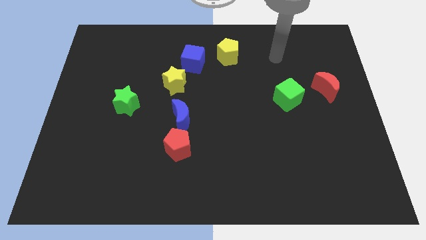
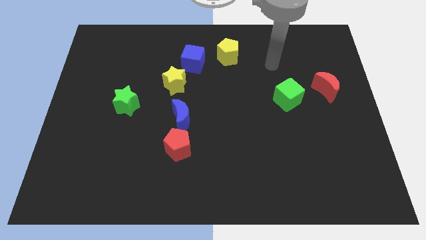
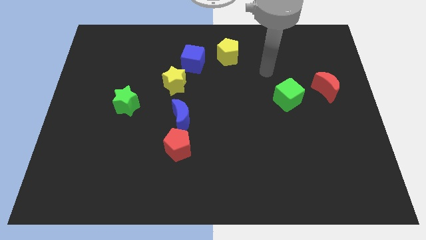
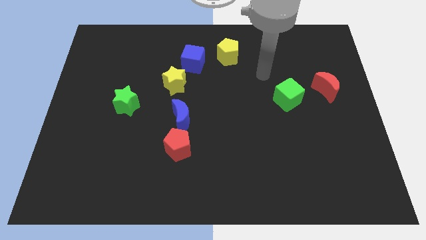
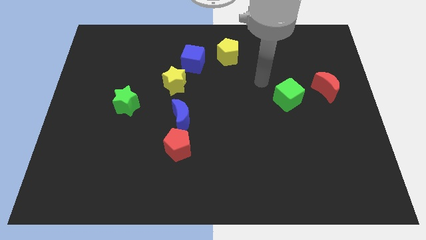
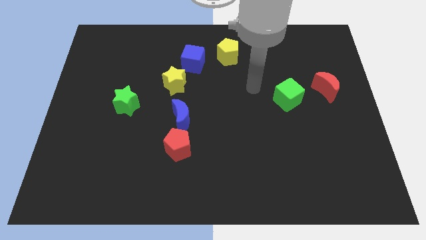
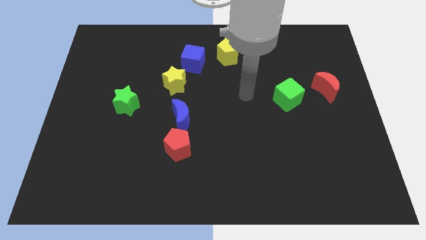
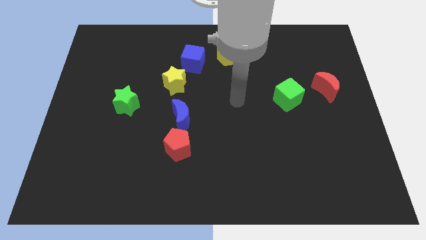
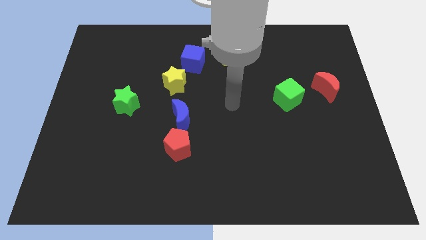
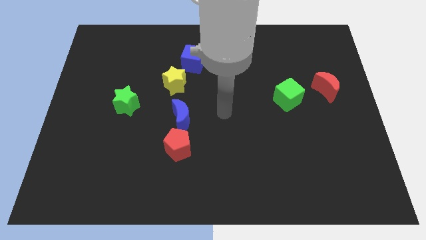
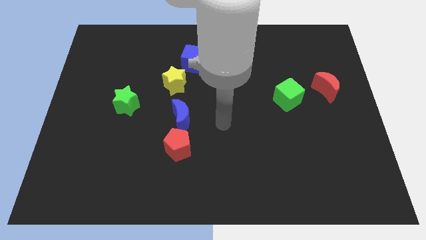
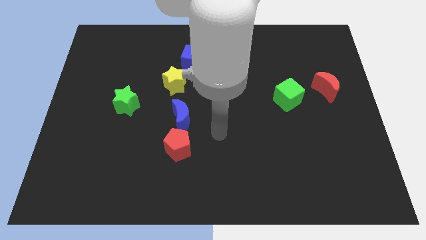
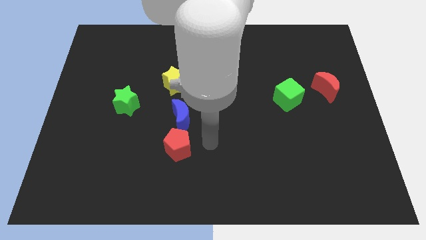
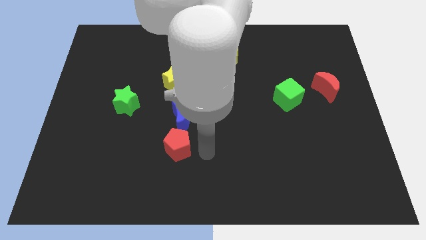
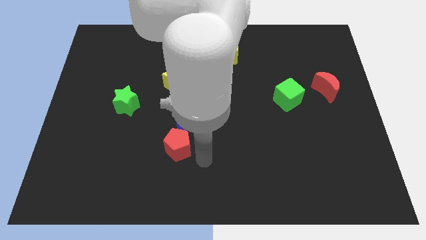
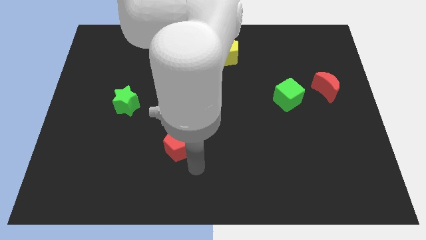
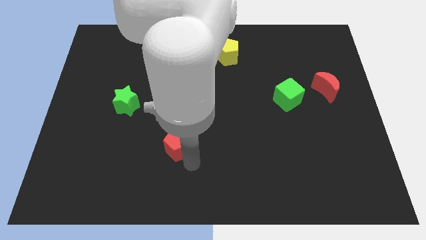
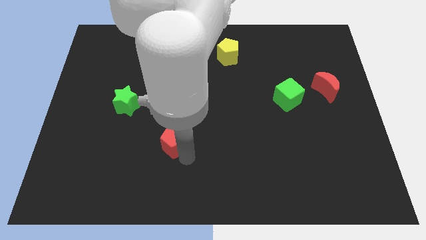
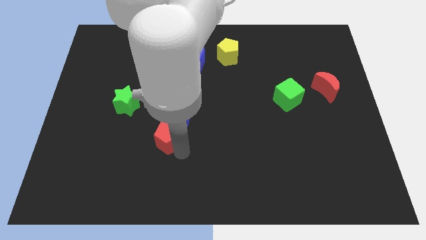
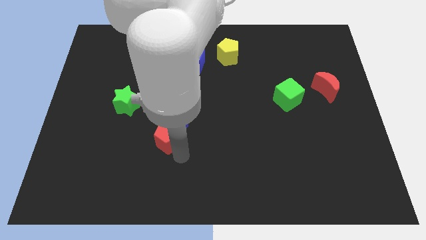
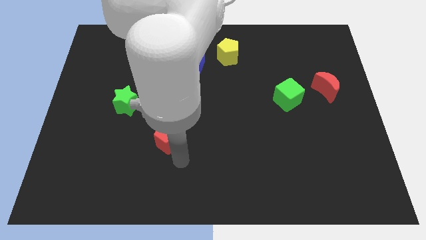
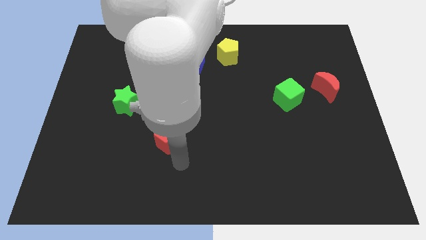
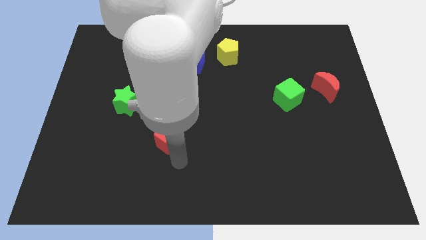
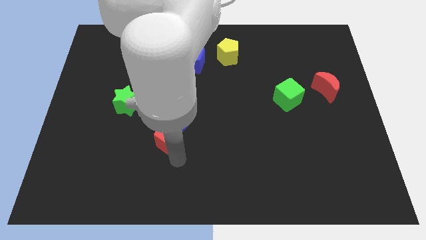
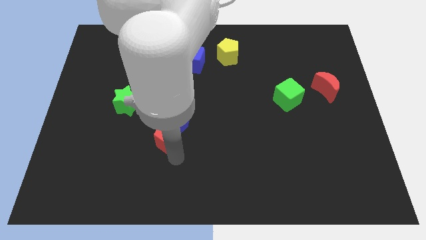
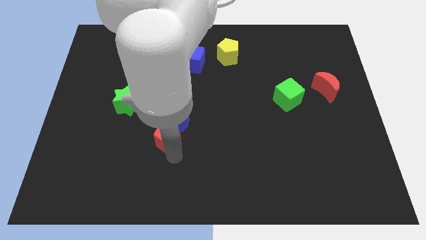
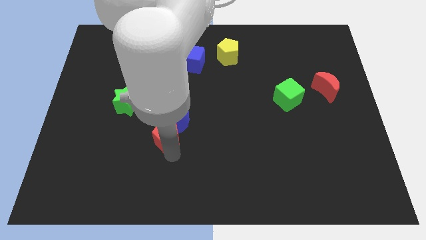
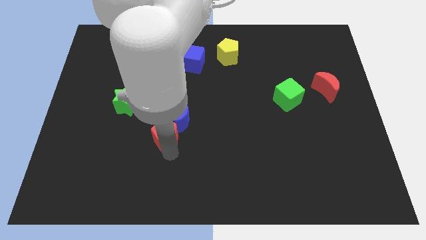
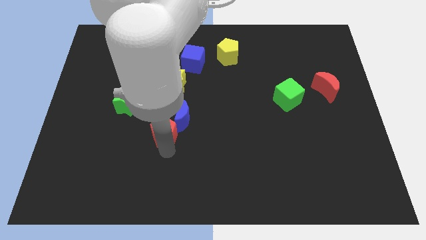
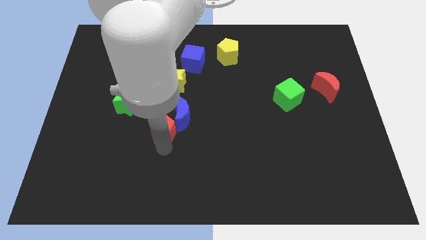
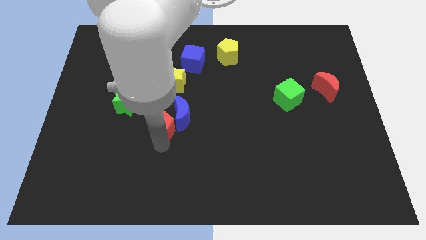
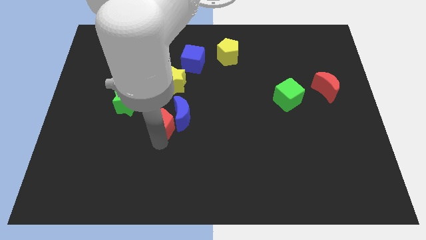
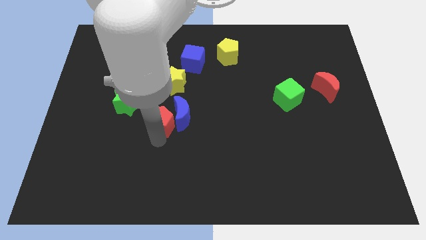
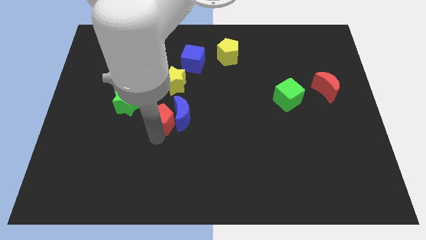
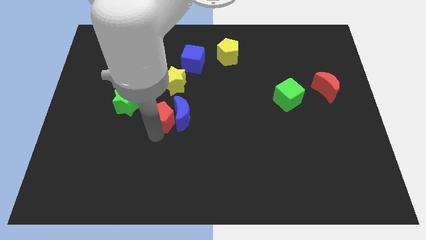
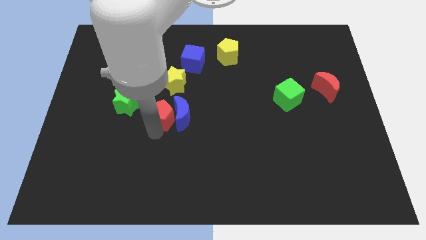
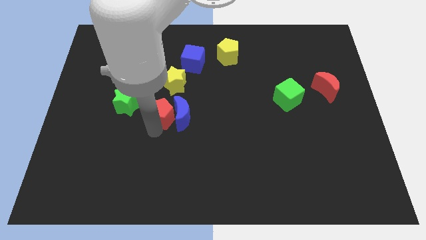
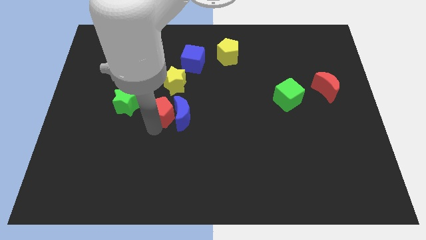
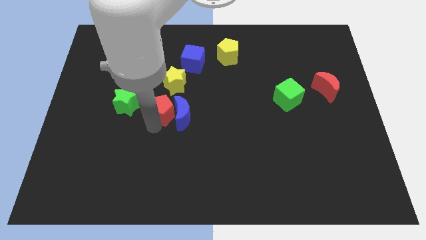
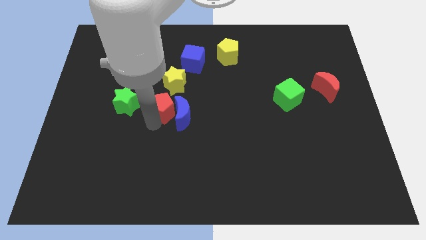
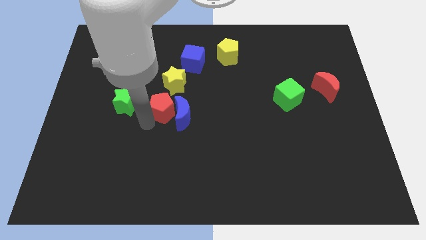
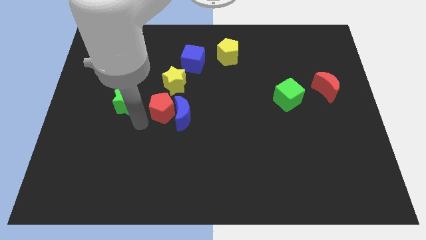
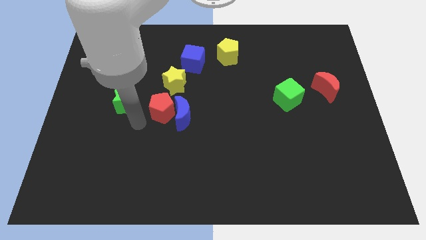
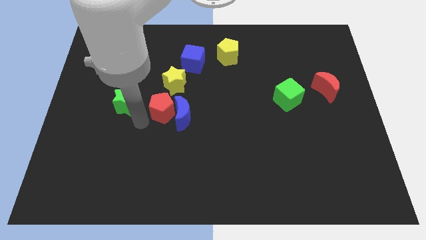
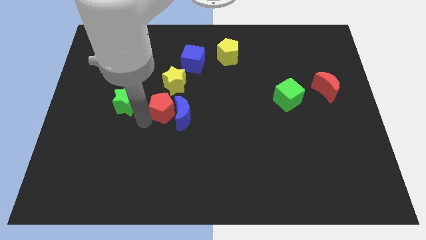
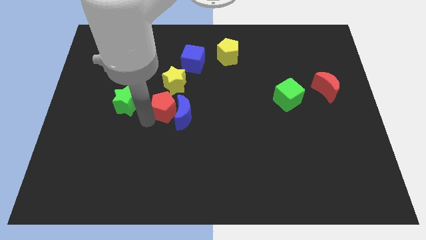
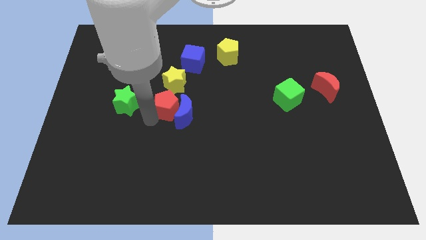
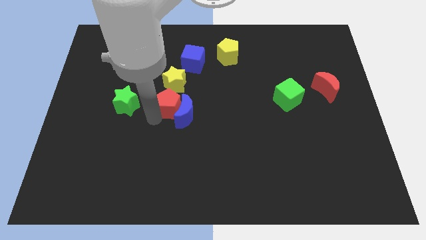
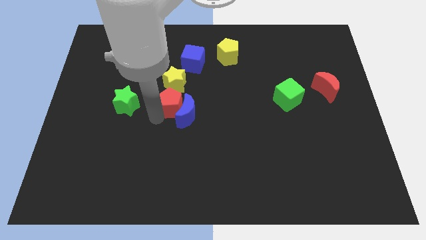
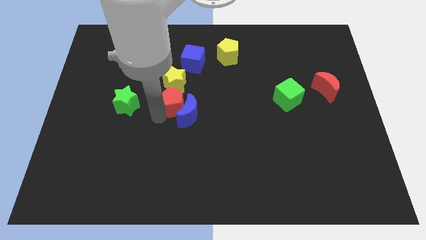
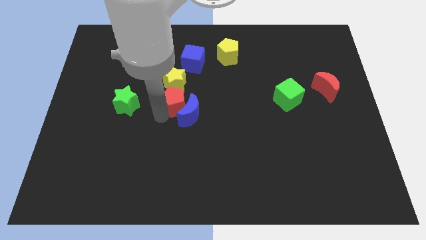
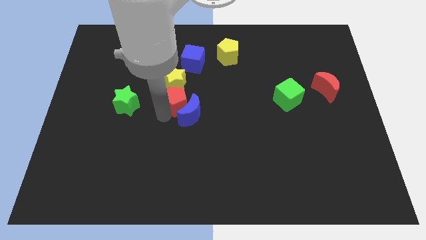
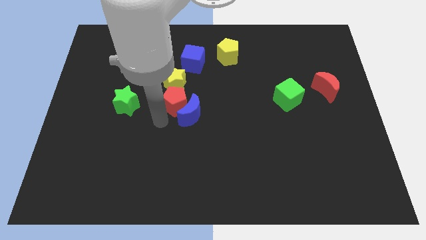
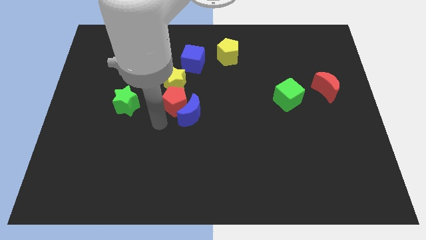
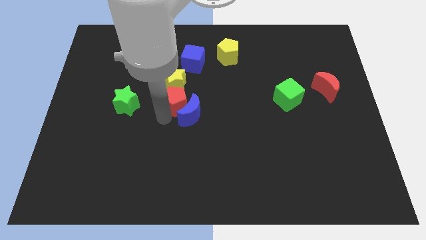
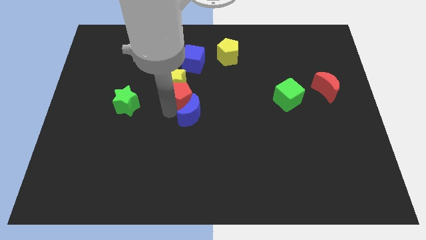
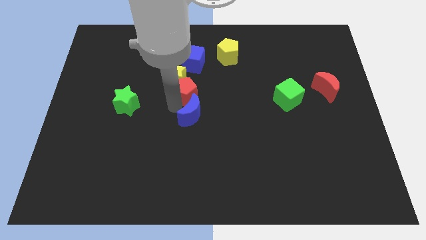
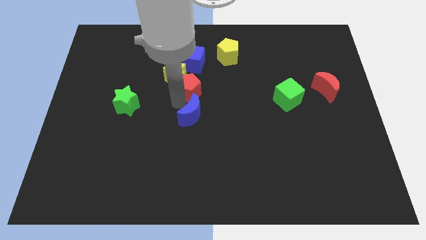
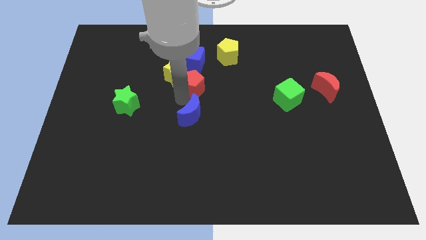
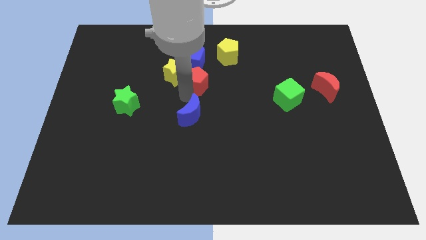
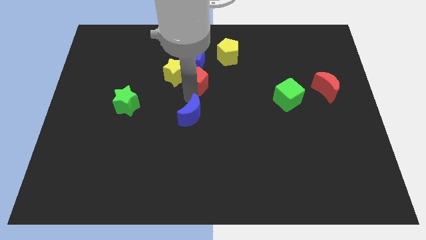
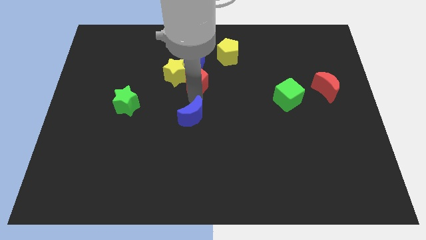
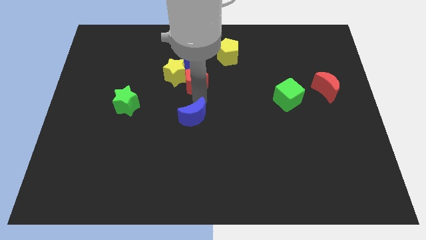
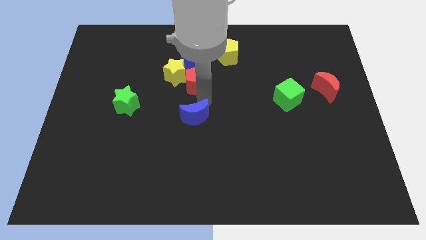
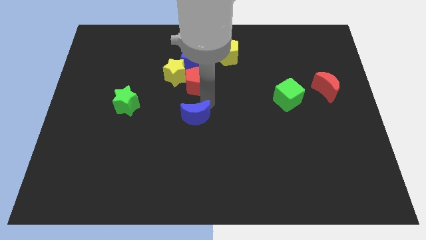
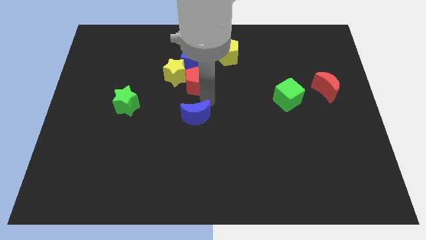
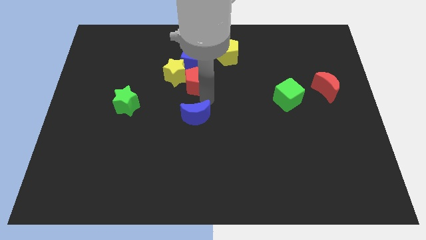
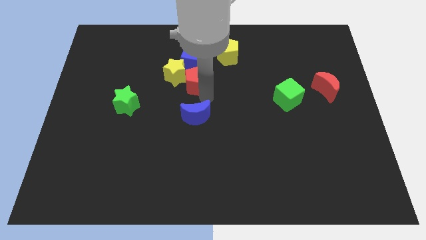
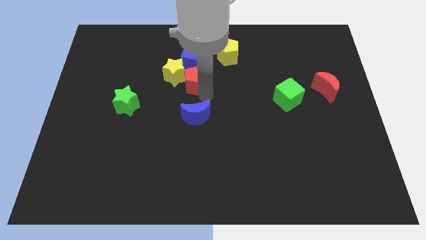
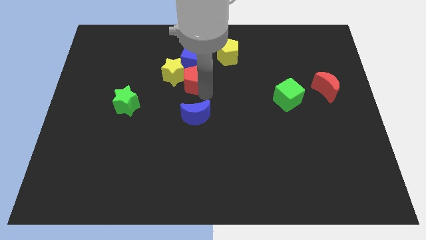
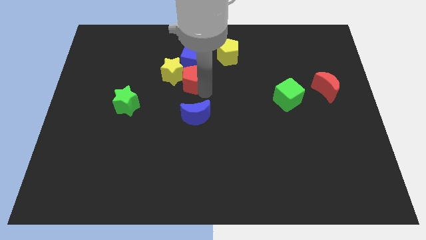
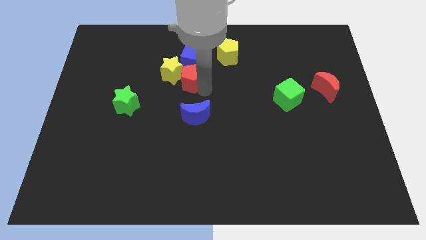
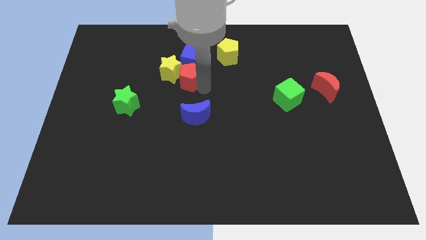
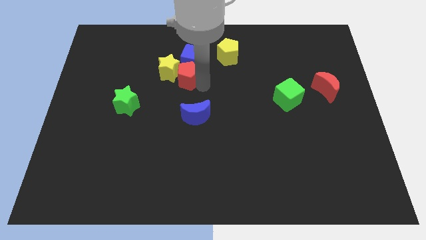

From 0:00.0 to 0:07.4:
slide the red pentagon to the blue cube
